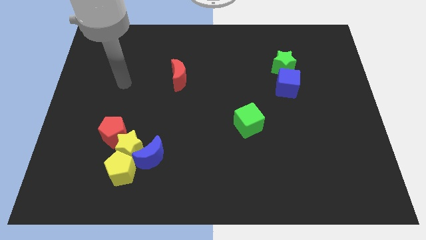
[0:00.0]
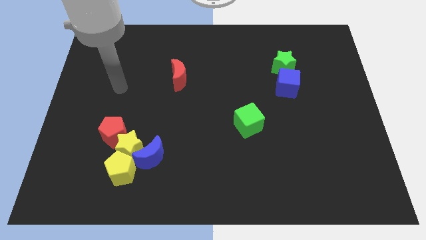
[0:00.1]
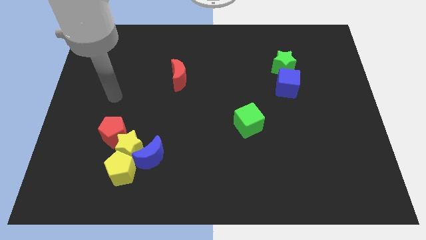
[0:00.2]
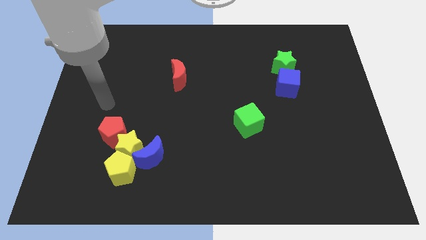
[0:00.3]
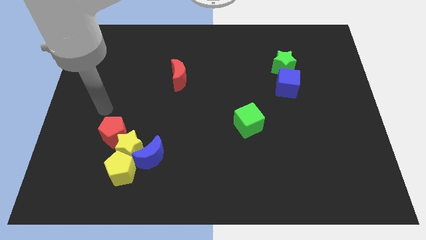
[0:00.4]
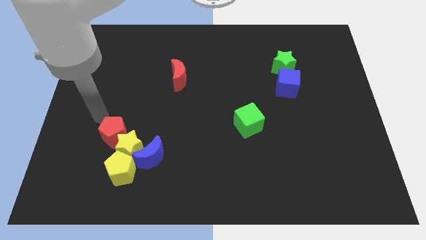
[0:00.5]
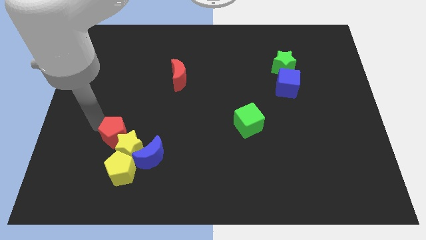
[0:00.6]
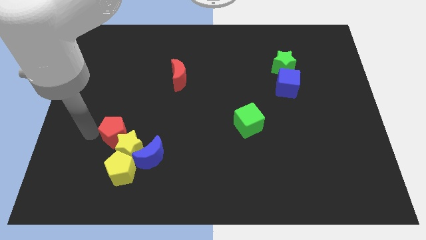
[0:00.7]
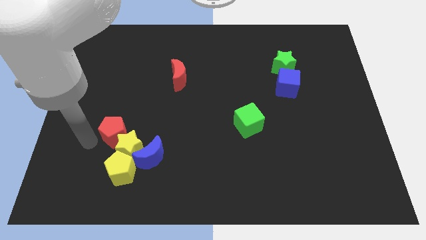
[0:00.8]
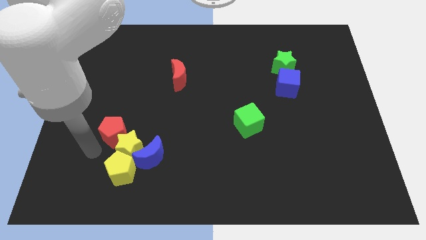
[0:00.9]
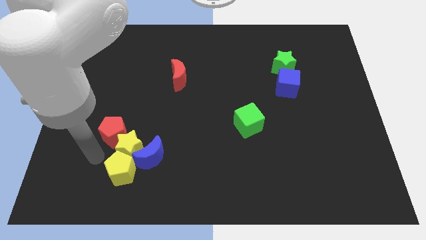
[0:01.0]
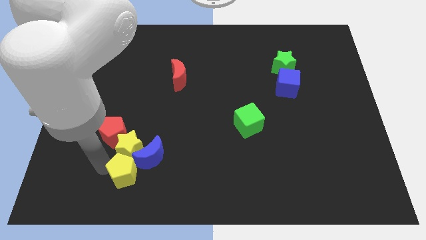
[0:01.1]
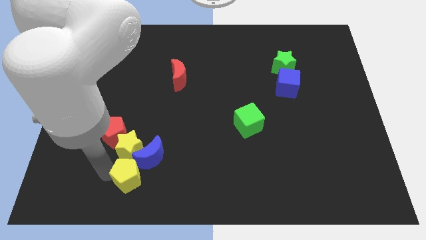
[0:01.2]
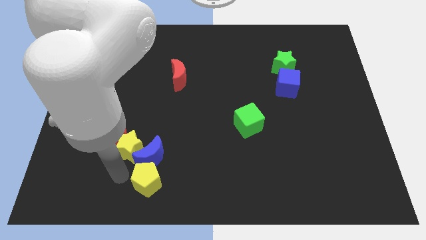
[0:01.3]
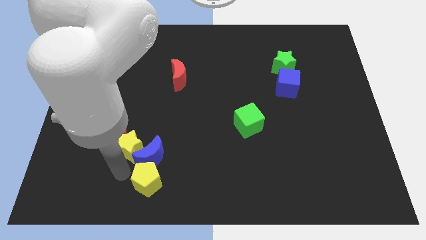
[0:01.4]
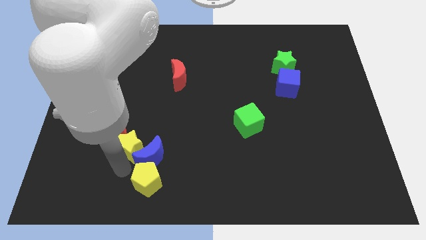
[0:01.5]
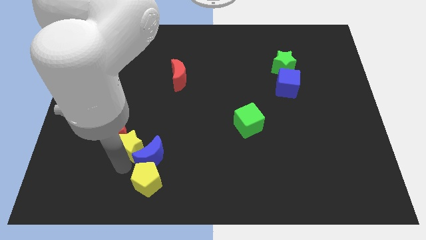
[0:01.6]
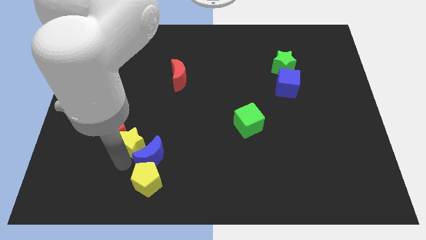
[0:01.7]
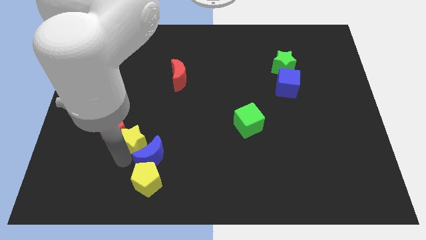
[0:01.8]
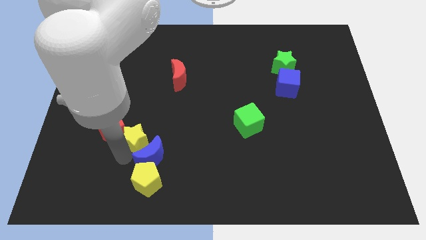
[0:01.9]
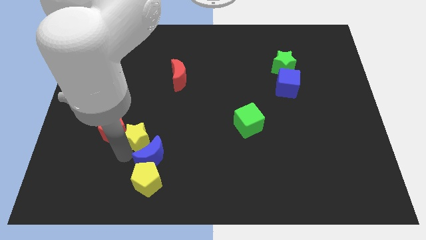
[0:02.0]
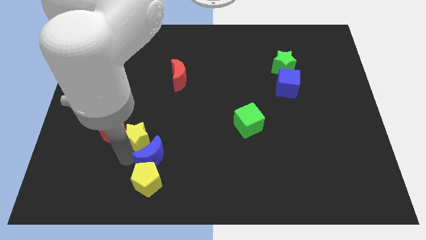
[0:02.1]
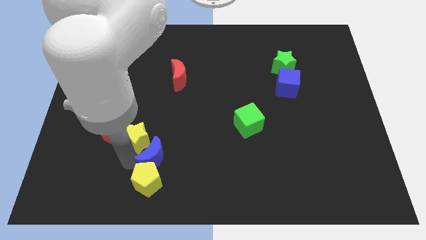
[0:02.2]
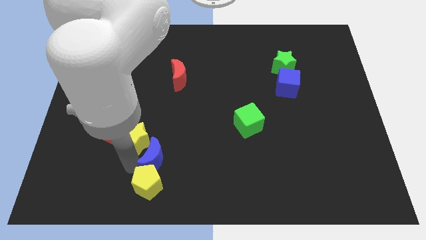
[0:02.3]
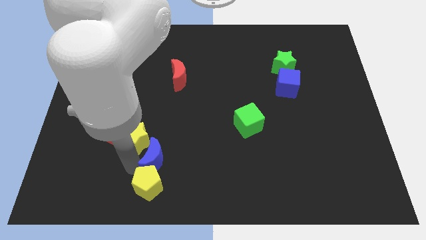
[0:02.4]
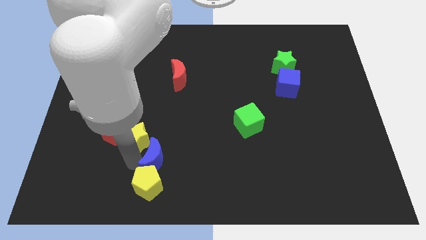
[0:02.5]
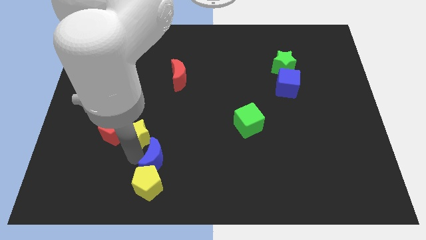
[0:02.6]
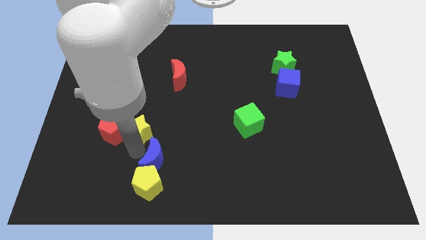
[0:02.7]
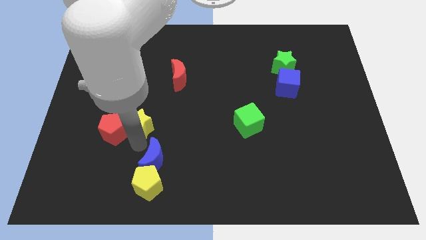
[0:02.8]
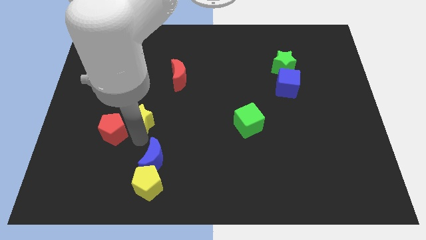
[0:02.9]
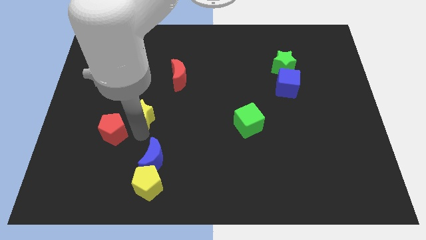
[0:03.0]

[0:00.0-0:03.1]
move the yellow star away from the blue moon, yellow pentagon, and red pentagon

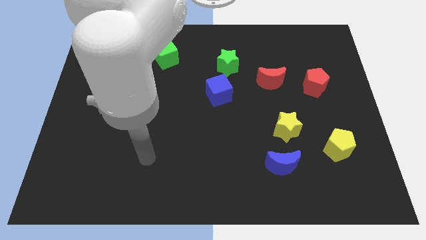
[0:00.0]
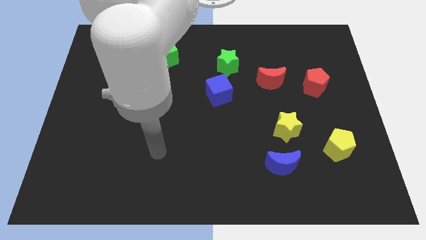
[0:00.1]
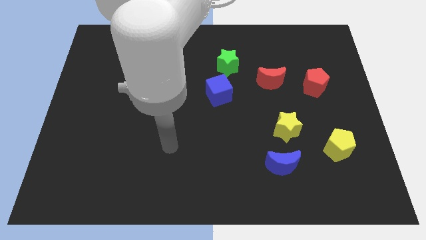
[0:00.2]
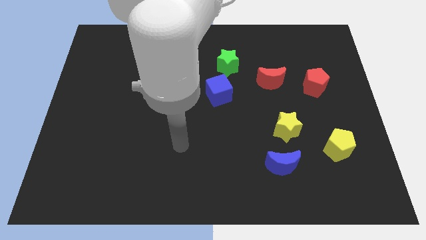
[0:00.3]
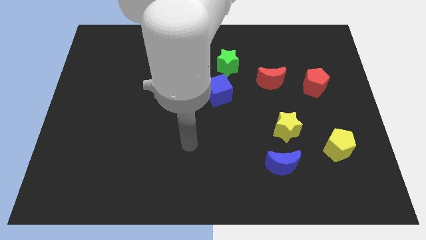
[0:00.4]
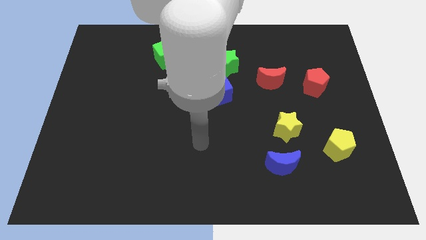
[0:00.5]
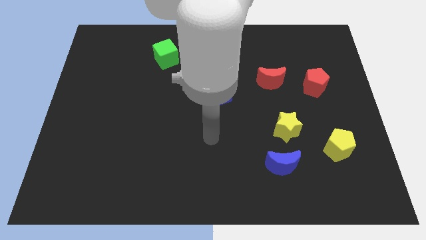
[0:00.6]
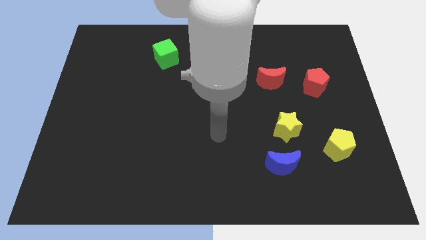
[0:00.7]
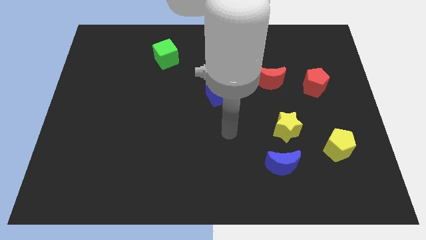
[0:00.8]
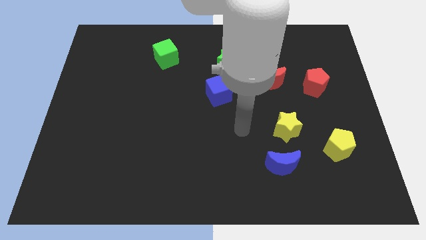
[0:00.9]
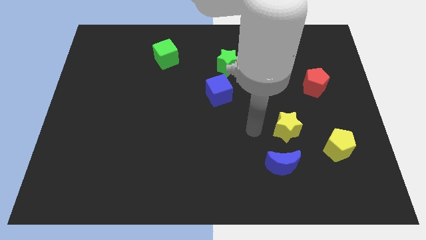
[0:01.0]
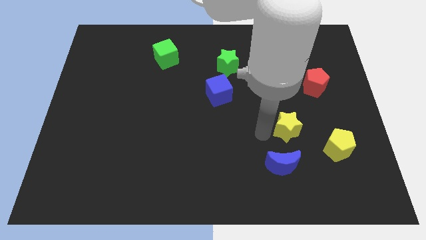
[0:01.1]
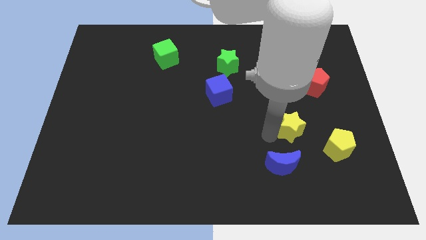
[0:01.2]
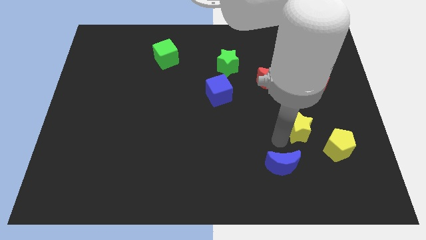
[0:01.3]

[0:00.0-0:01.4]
move the blue moon away from the yellow star

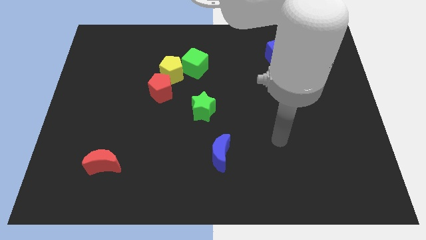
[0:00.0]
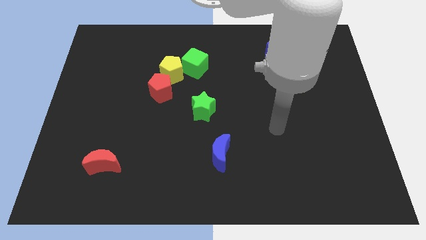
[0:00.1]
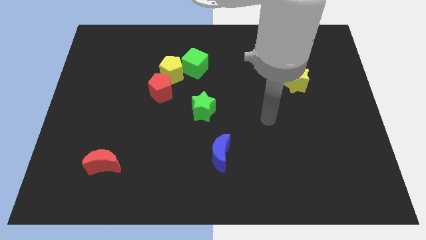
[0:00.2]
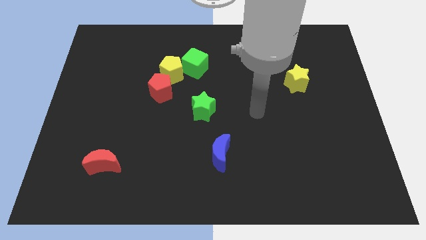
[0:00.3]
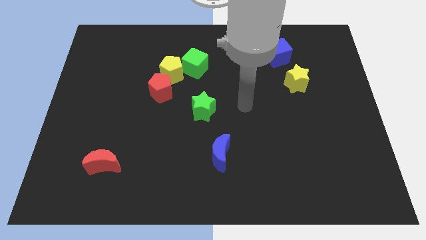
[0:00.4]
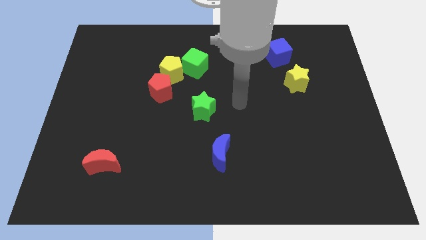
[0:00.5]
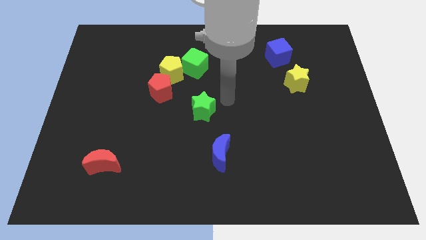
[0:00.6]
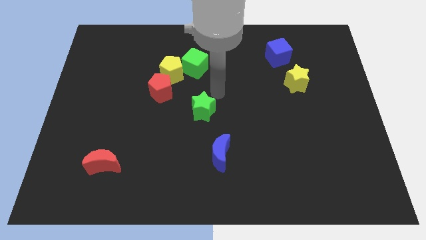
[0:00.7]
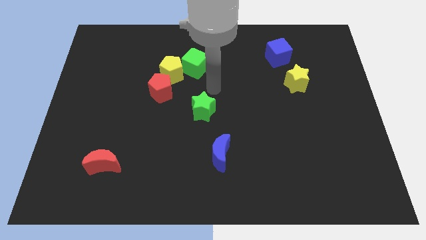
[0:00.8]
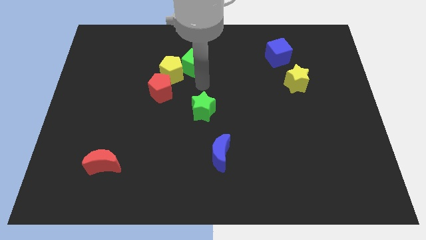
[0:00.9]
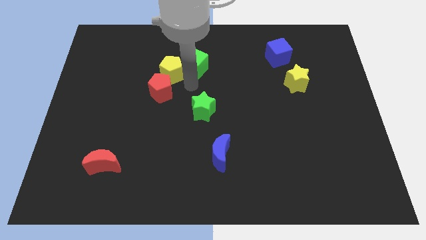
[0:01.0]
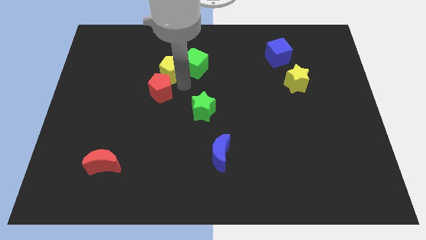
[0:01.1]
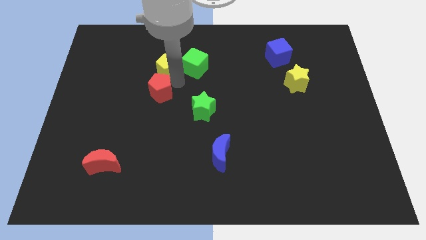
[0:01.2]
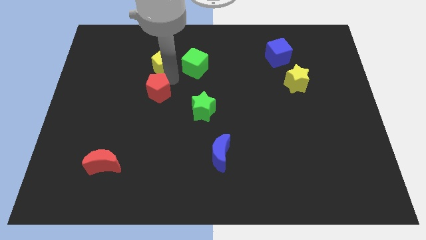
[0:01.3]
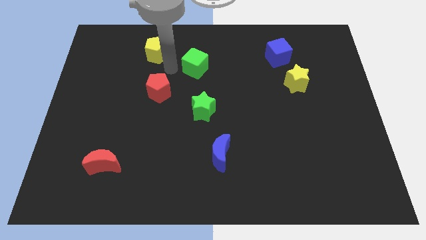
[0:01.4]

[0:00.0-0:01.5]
separate the green cube from the yellow pentagon

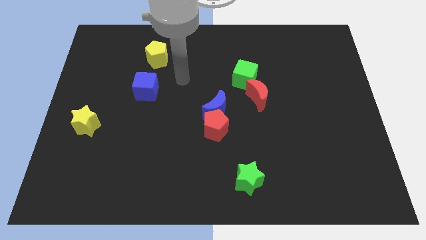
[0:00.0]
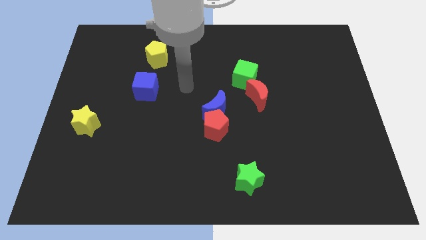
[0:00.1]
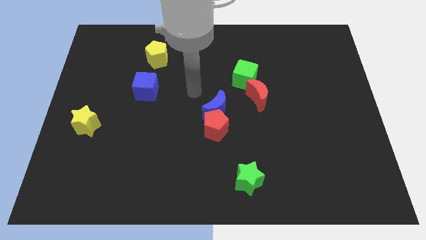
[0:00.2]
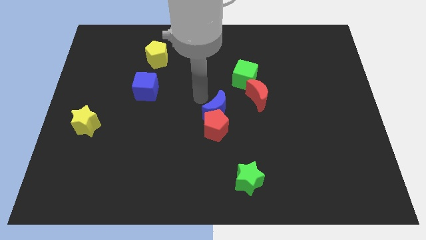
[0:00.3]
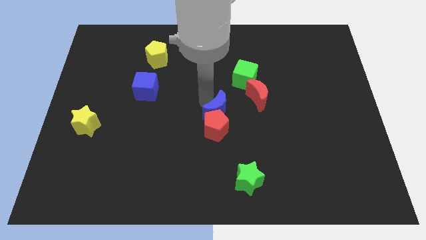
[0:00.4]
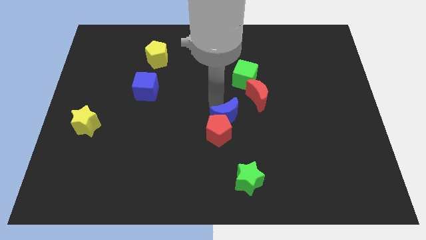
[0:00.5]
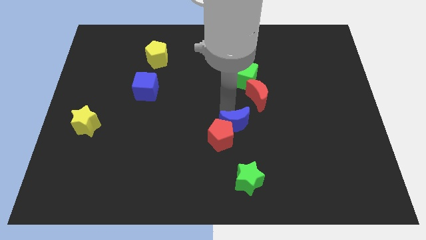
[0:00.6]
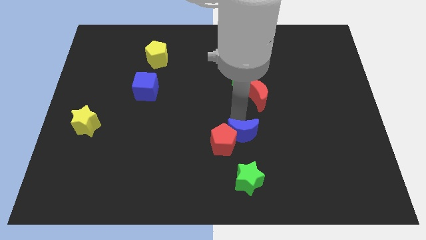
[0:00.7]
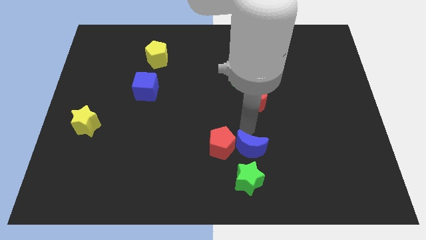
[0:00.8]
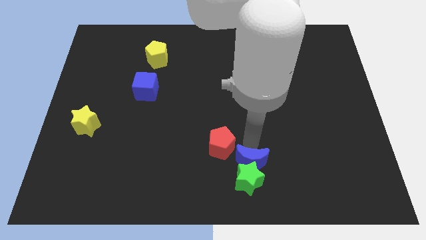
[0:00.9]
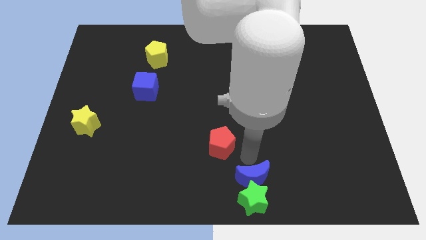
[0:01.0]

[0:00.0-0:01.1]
pull the red pentagon apart from the blue moon

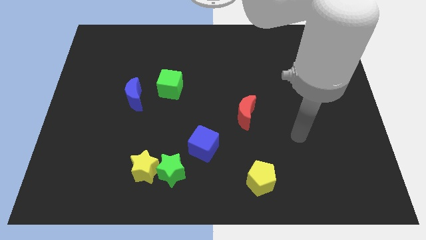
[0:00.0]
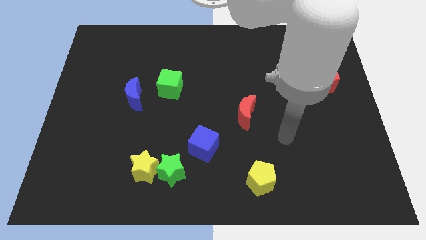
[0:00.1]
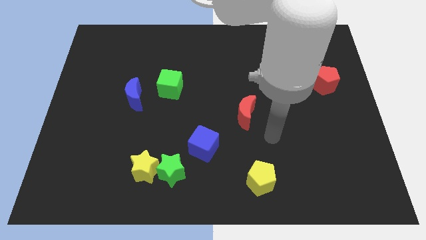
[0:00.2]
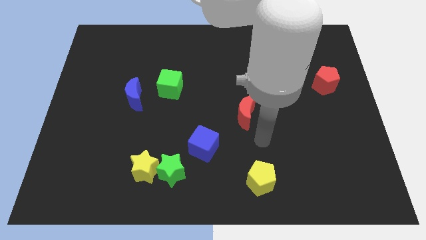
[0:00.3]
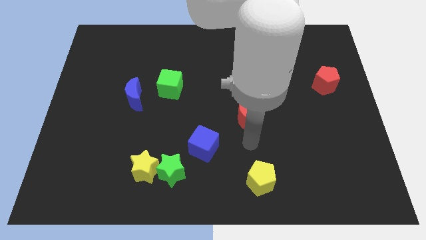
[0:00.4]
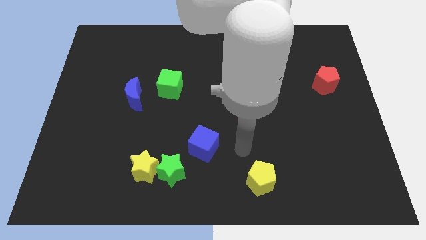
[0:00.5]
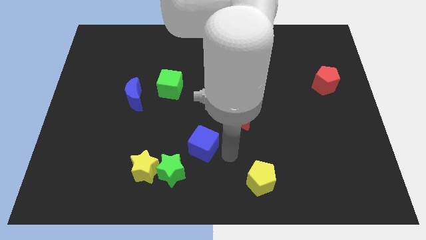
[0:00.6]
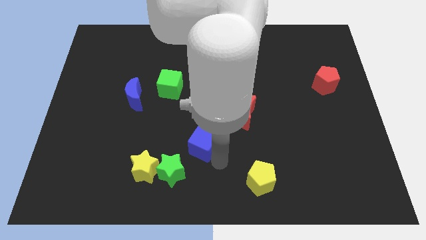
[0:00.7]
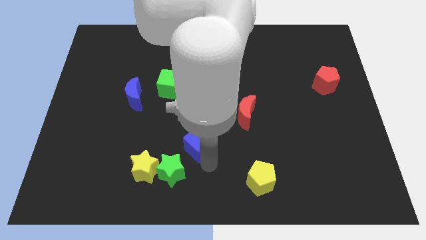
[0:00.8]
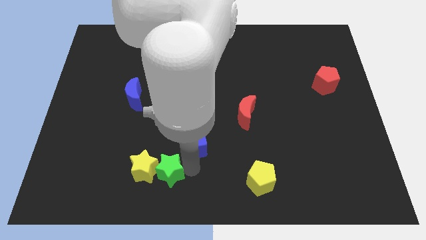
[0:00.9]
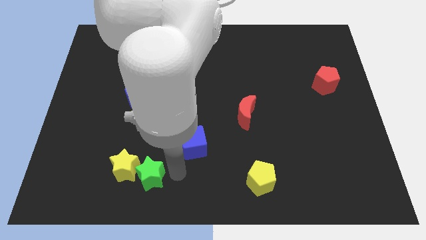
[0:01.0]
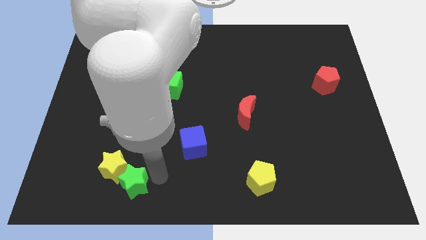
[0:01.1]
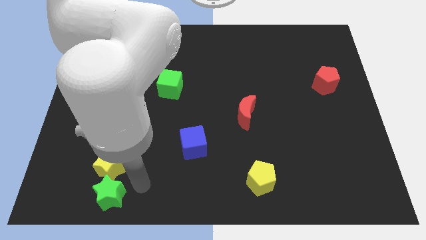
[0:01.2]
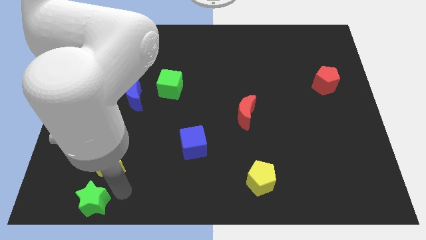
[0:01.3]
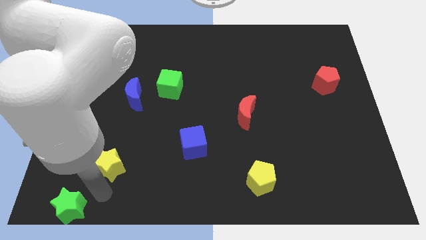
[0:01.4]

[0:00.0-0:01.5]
separate the yellow star from the green star

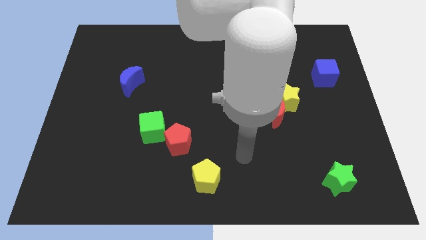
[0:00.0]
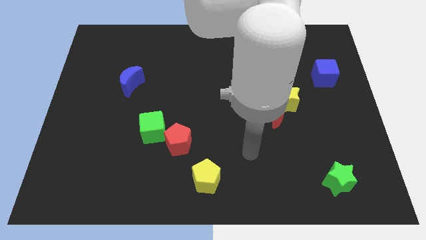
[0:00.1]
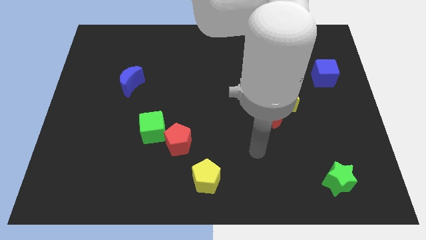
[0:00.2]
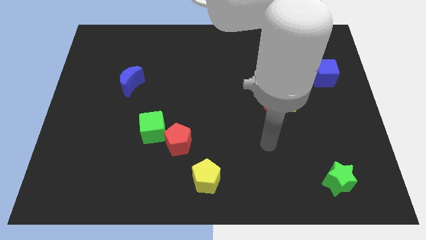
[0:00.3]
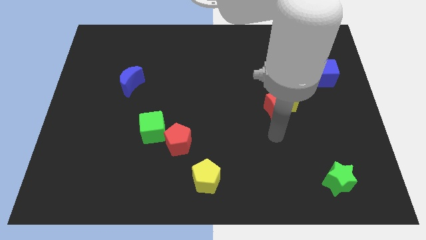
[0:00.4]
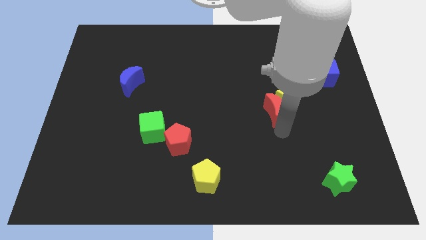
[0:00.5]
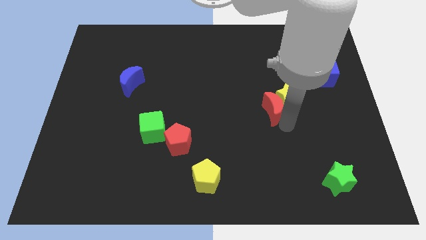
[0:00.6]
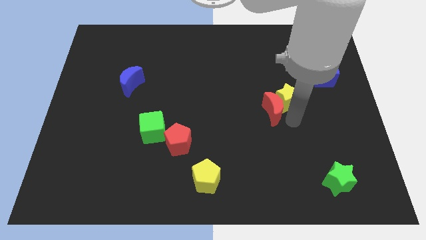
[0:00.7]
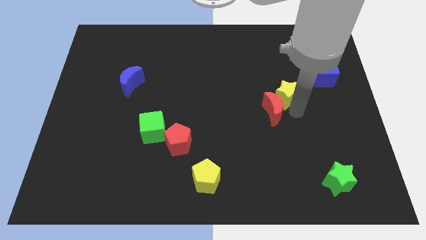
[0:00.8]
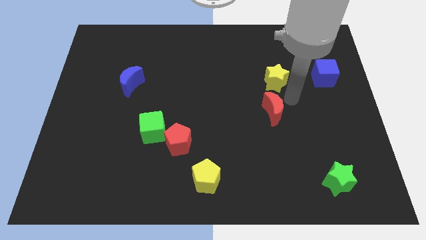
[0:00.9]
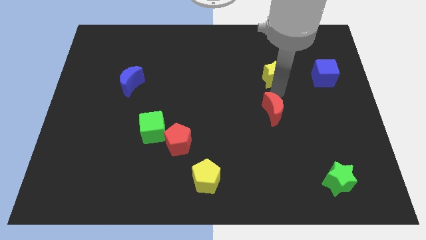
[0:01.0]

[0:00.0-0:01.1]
pull the red moon apart from the yellow star
